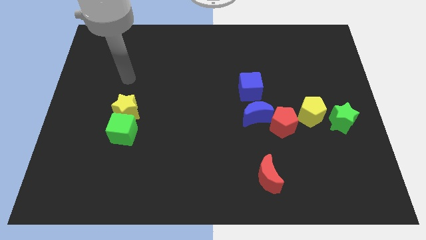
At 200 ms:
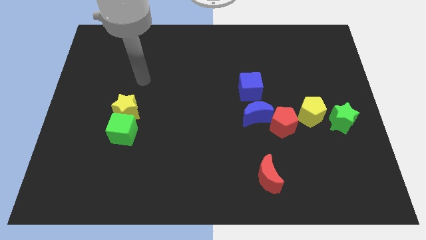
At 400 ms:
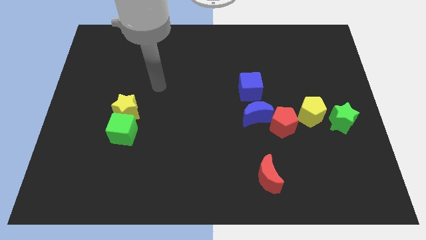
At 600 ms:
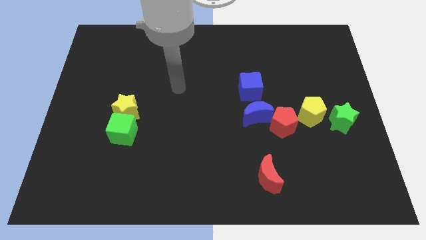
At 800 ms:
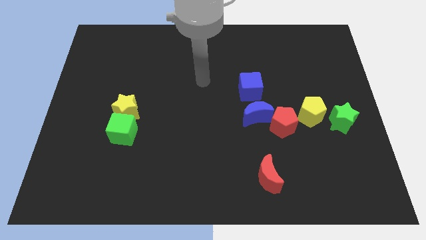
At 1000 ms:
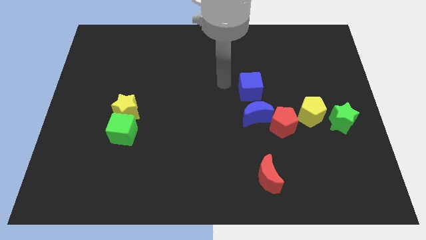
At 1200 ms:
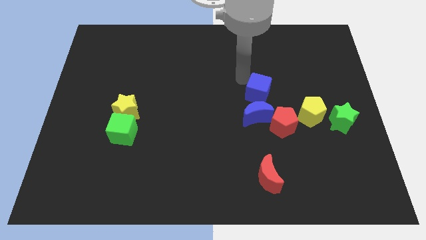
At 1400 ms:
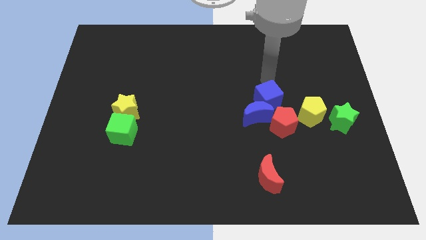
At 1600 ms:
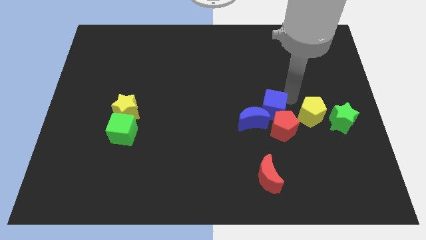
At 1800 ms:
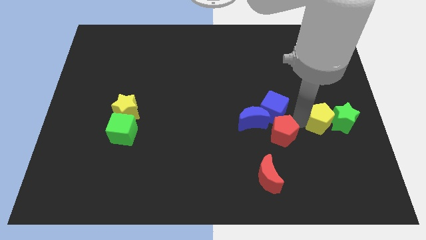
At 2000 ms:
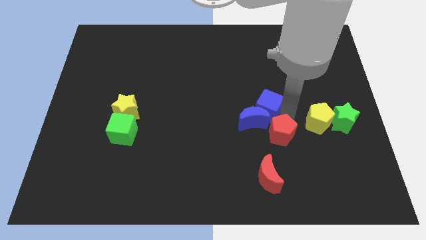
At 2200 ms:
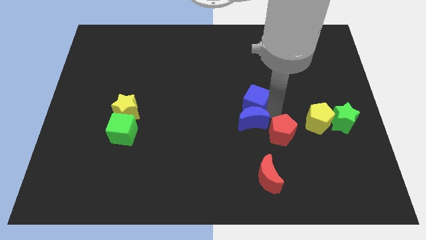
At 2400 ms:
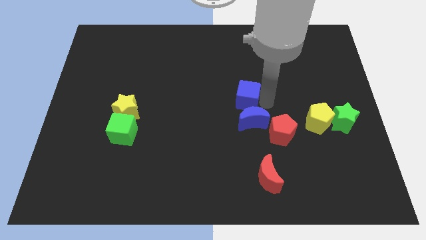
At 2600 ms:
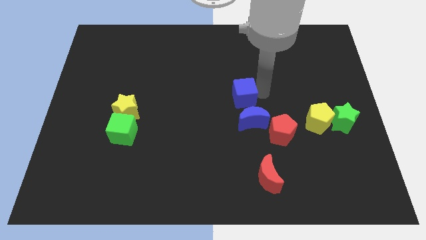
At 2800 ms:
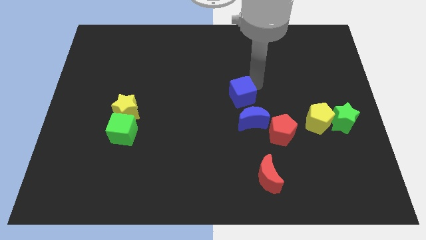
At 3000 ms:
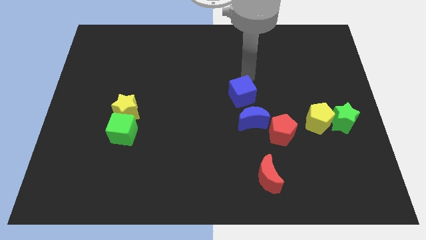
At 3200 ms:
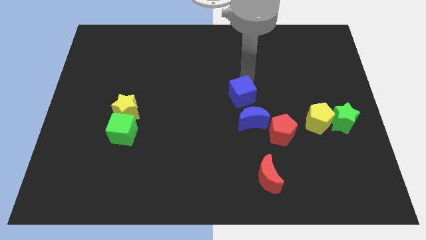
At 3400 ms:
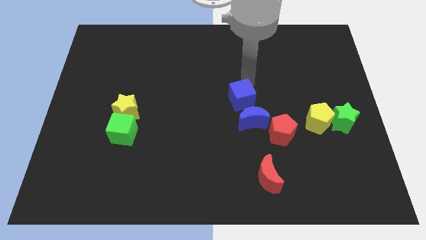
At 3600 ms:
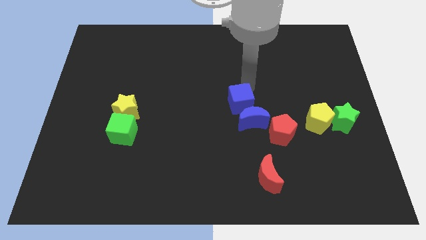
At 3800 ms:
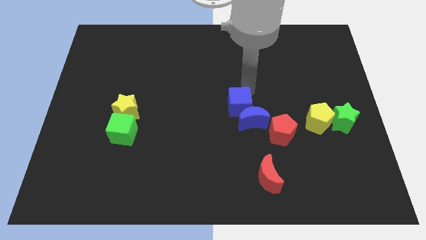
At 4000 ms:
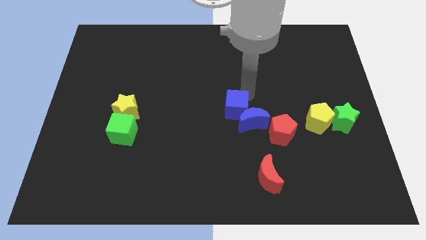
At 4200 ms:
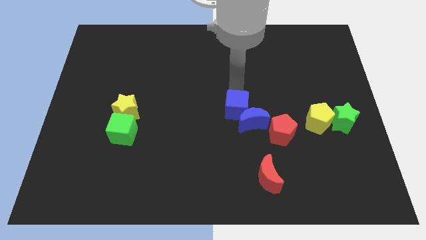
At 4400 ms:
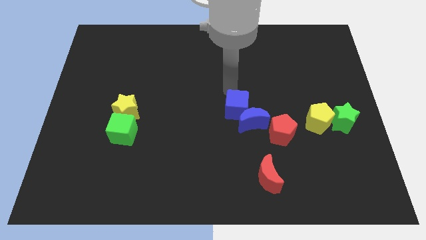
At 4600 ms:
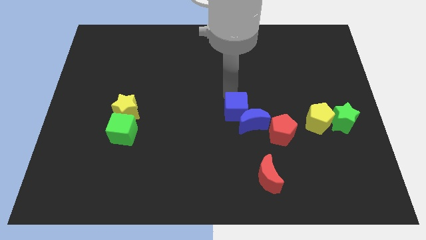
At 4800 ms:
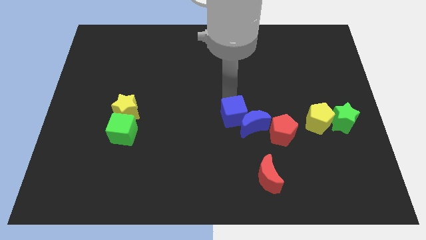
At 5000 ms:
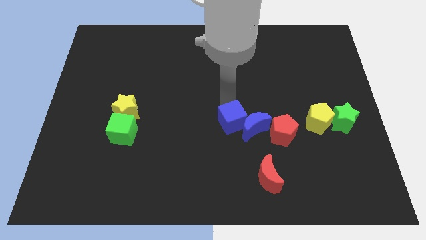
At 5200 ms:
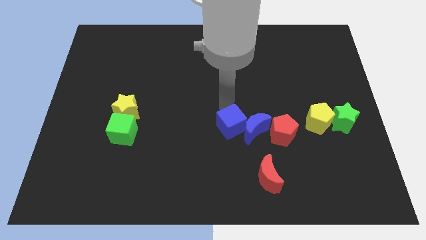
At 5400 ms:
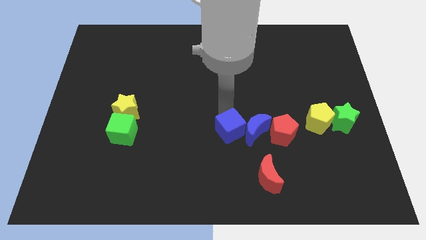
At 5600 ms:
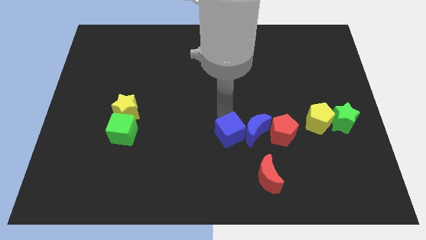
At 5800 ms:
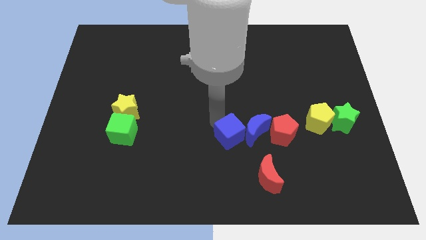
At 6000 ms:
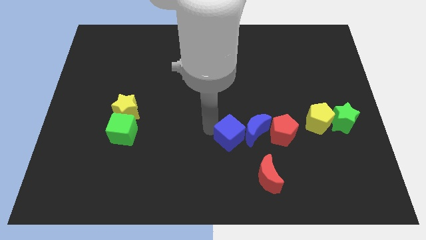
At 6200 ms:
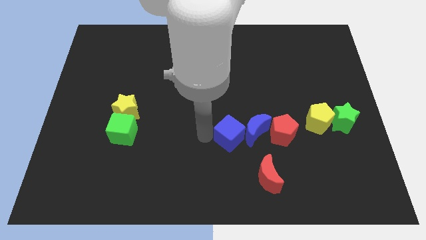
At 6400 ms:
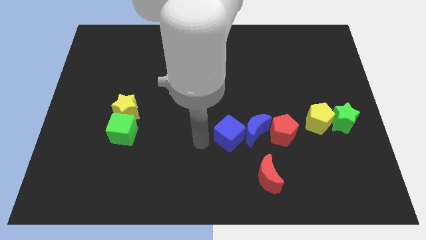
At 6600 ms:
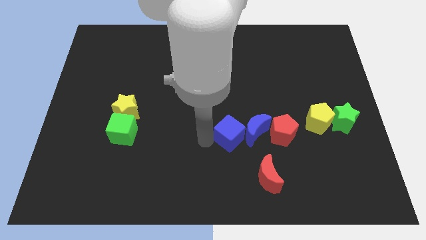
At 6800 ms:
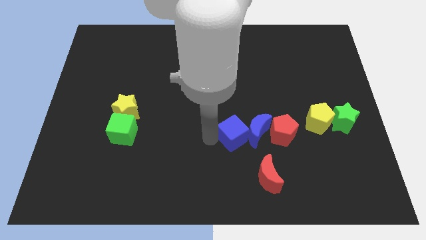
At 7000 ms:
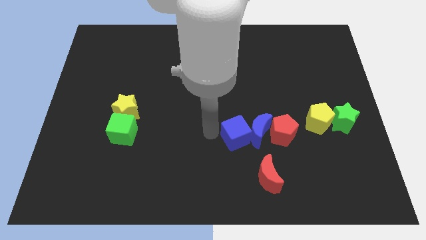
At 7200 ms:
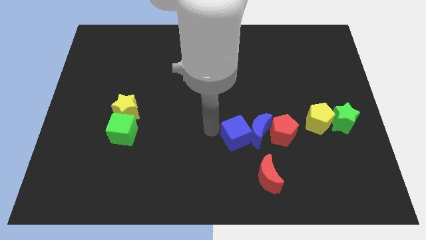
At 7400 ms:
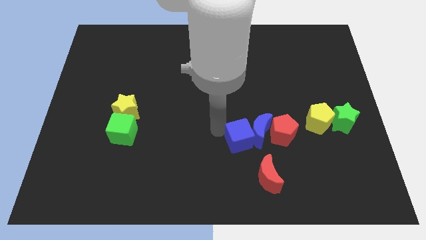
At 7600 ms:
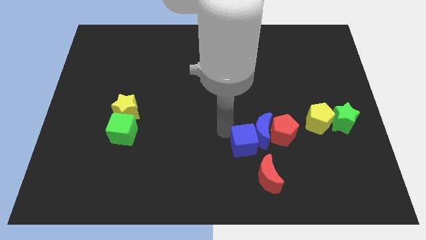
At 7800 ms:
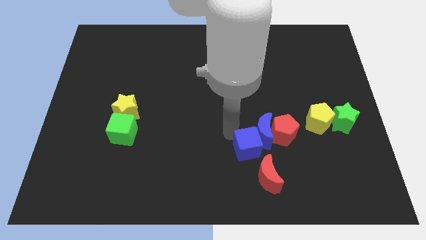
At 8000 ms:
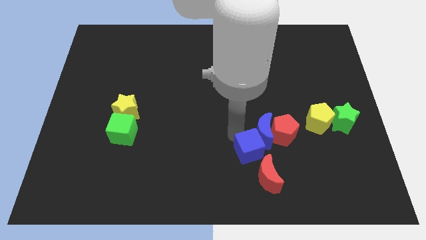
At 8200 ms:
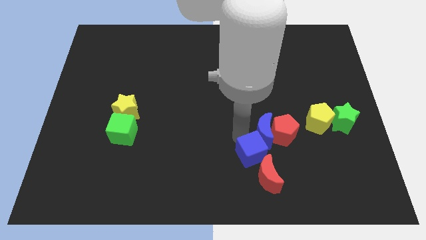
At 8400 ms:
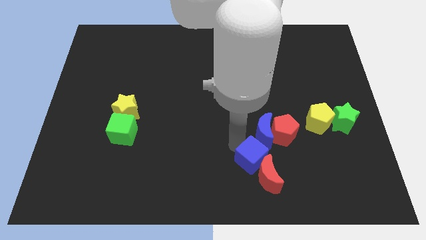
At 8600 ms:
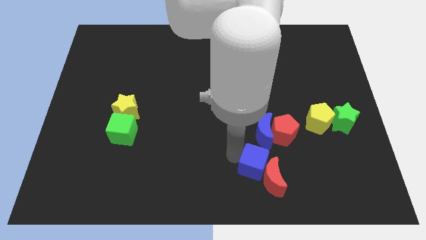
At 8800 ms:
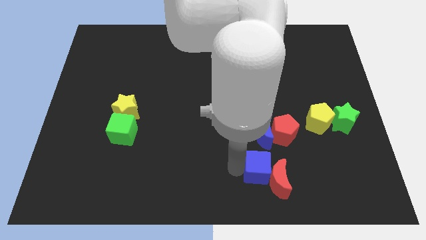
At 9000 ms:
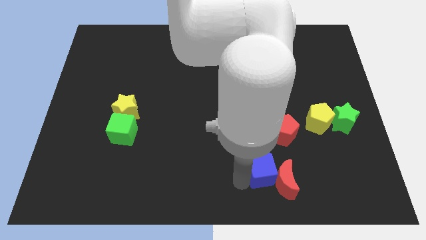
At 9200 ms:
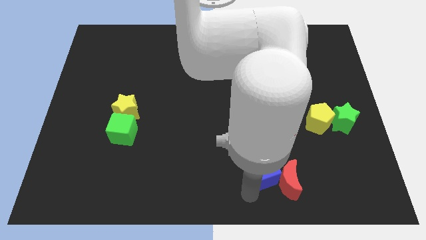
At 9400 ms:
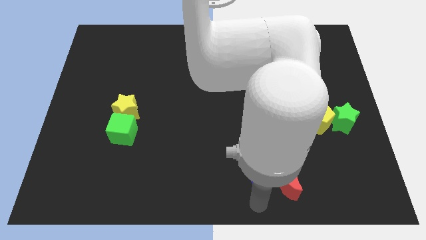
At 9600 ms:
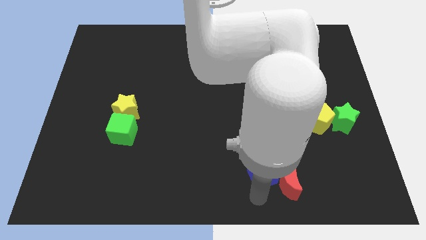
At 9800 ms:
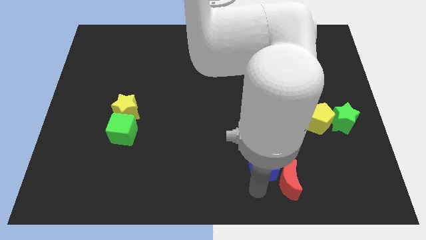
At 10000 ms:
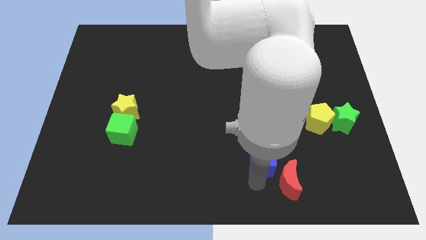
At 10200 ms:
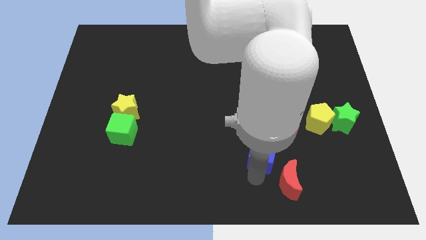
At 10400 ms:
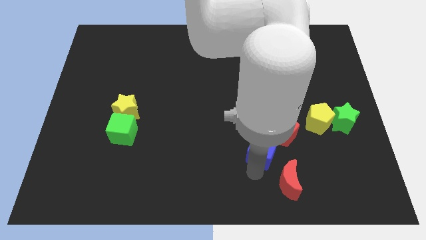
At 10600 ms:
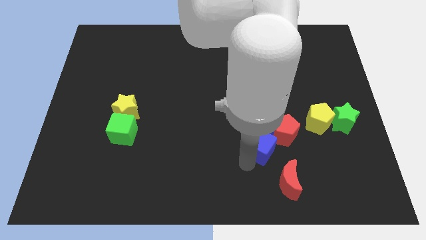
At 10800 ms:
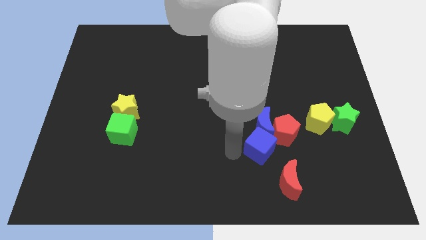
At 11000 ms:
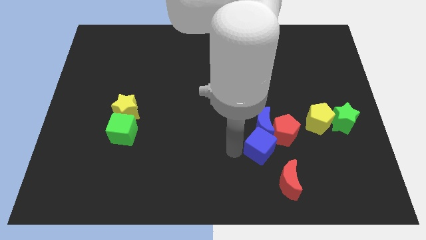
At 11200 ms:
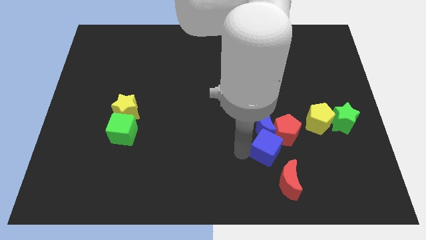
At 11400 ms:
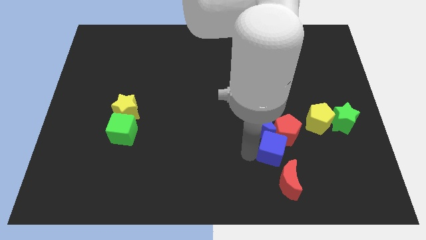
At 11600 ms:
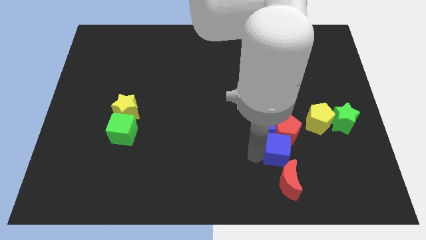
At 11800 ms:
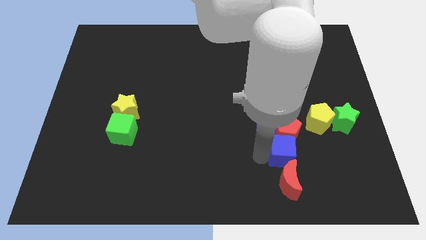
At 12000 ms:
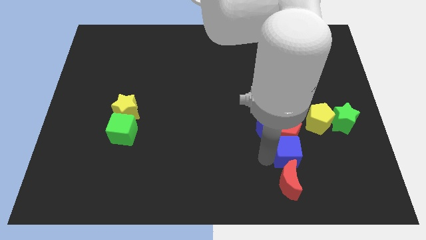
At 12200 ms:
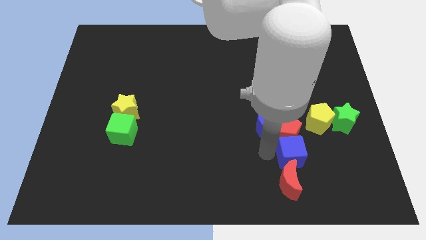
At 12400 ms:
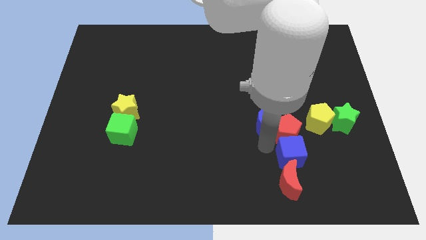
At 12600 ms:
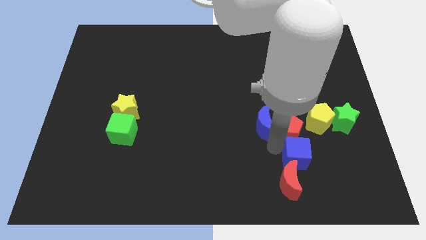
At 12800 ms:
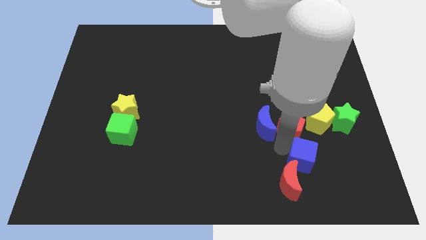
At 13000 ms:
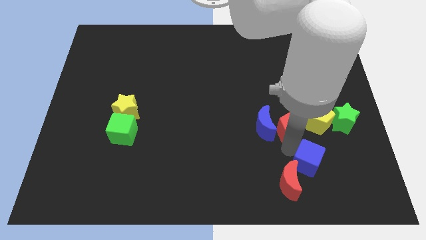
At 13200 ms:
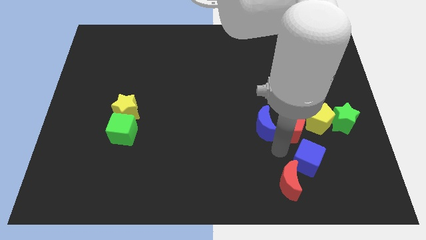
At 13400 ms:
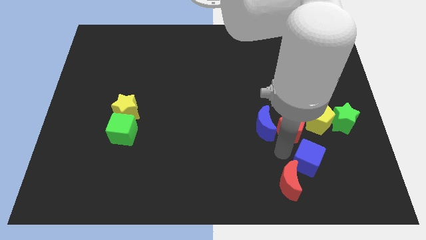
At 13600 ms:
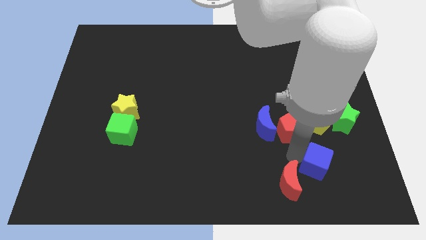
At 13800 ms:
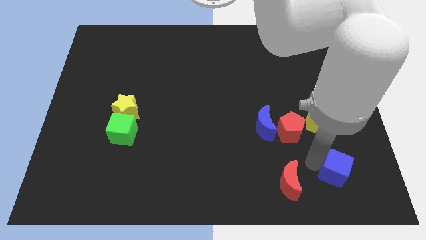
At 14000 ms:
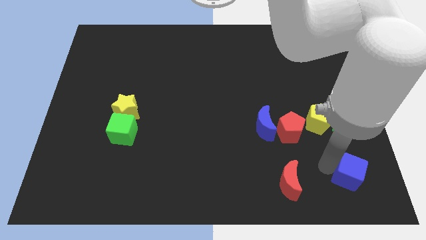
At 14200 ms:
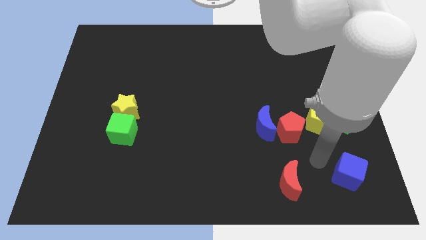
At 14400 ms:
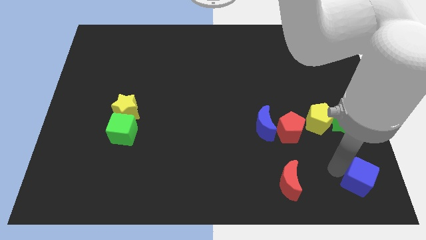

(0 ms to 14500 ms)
push the blue cube to the lower right corner

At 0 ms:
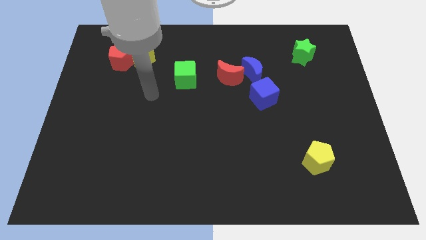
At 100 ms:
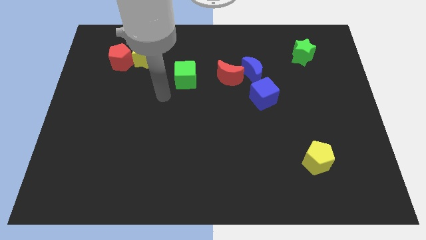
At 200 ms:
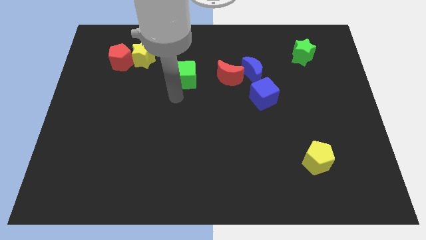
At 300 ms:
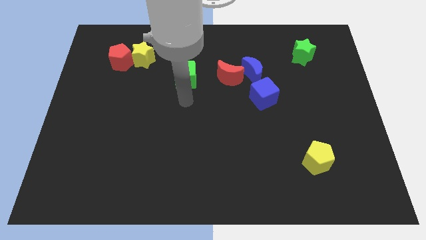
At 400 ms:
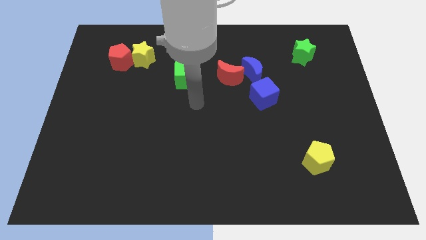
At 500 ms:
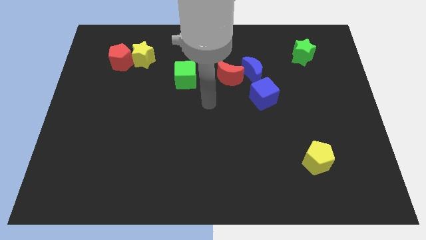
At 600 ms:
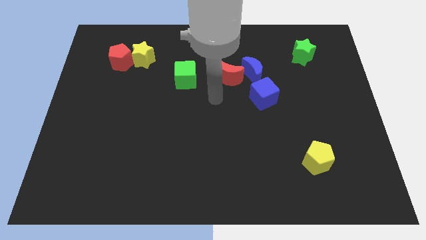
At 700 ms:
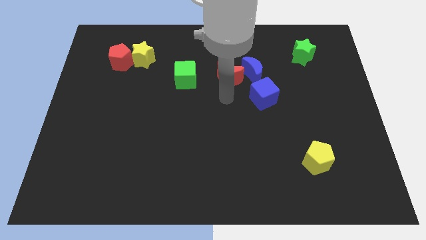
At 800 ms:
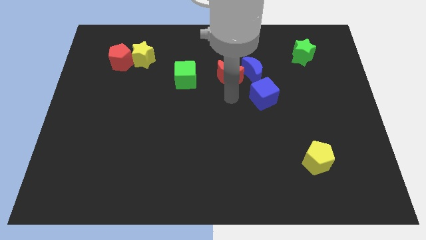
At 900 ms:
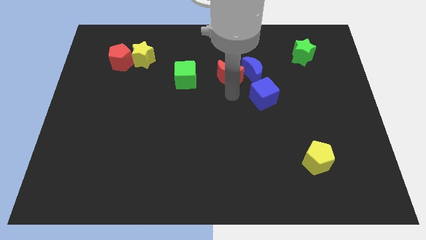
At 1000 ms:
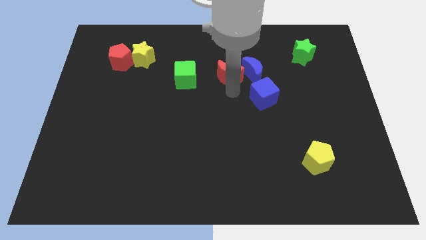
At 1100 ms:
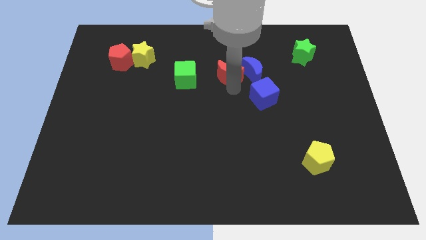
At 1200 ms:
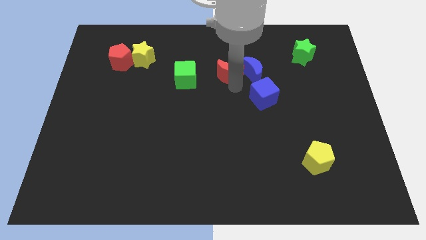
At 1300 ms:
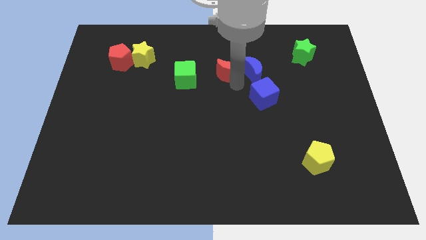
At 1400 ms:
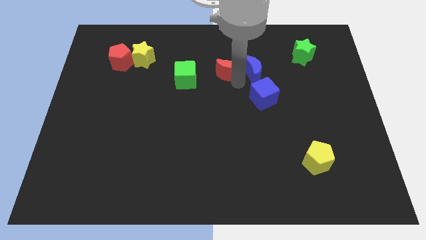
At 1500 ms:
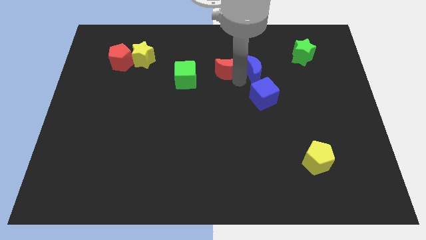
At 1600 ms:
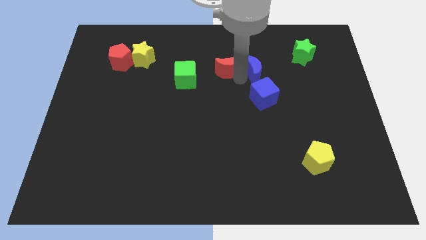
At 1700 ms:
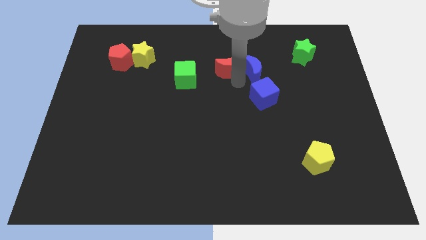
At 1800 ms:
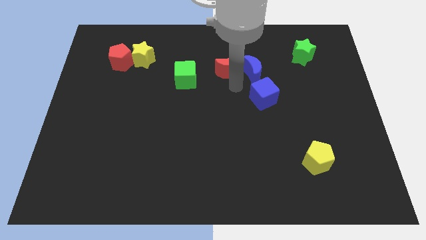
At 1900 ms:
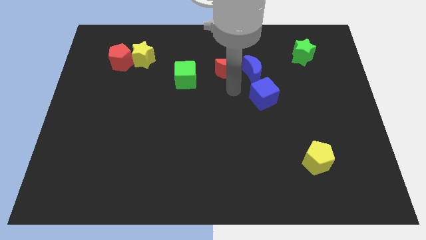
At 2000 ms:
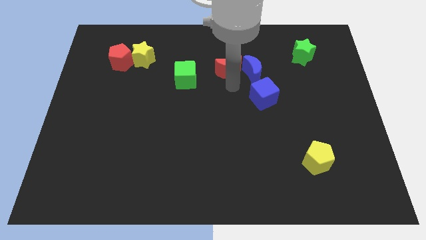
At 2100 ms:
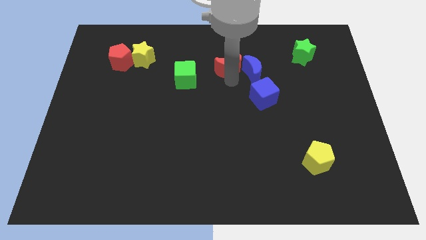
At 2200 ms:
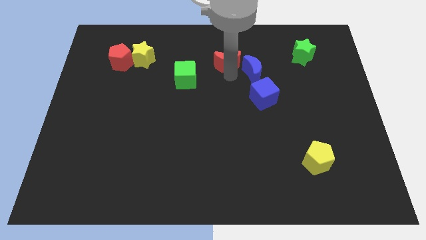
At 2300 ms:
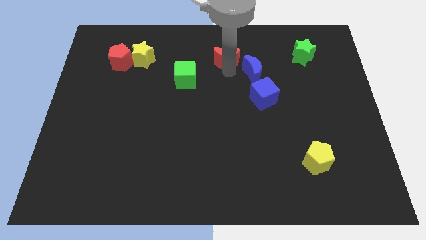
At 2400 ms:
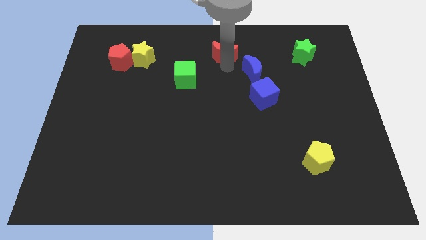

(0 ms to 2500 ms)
move the red moon to the top side
